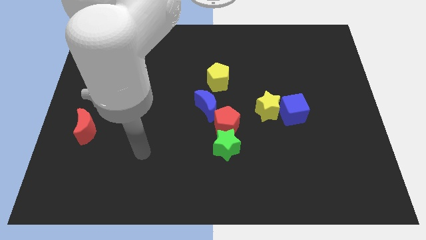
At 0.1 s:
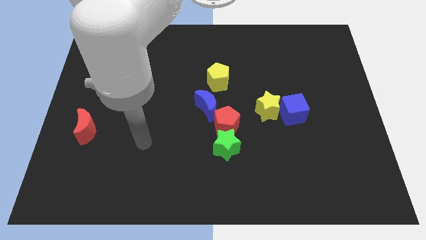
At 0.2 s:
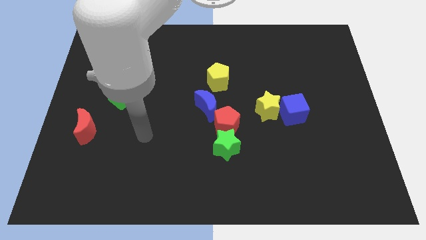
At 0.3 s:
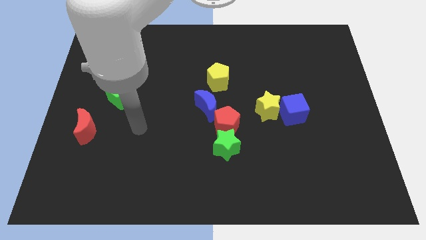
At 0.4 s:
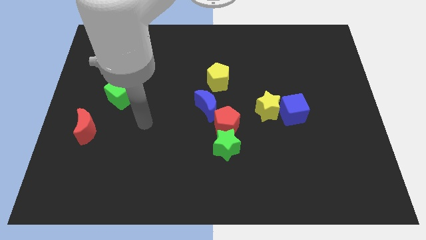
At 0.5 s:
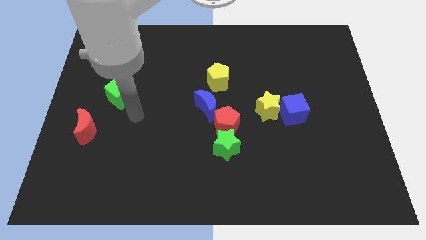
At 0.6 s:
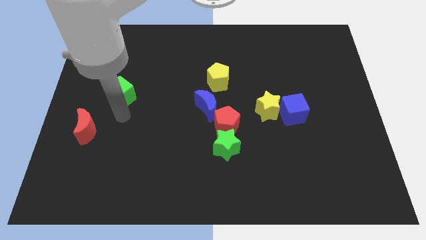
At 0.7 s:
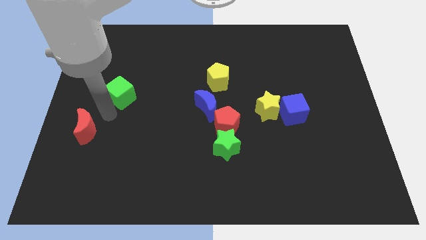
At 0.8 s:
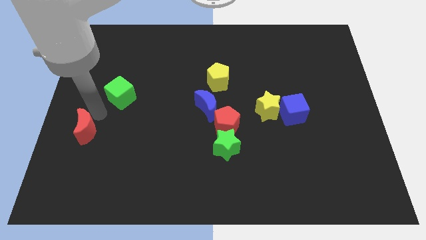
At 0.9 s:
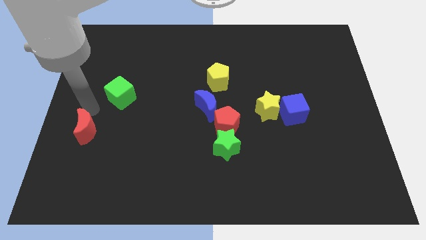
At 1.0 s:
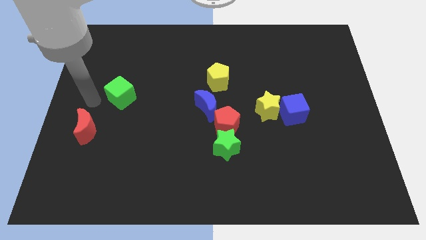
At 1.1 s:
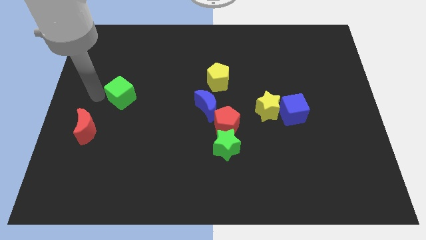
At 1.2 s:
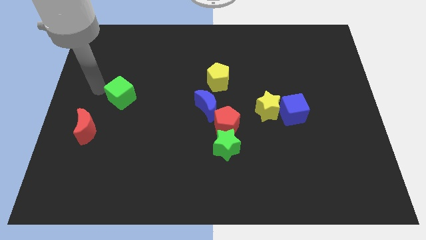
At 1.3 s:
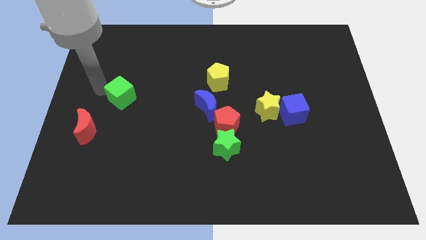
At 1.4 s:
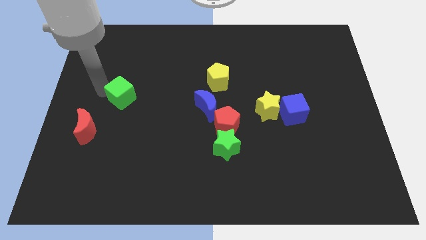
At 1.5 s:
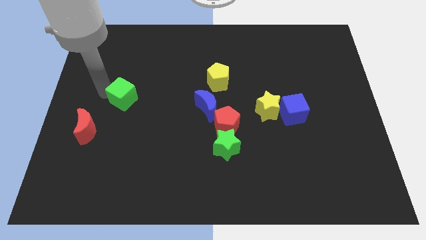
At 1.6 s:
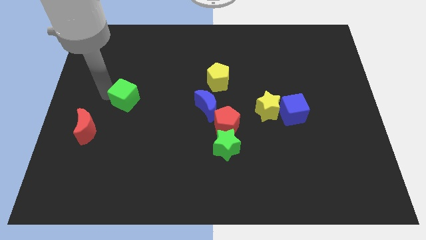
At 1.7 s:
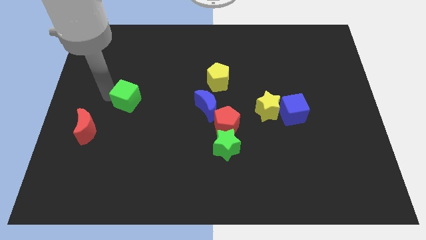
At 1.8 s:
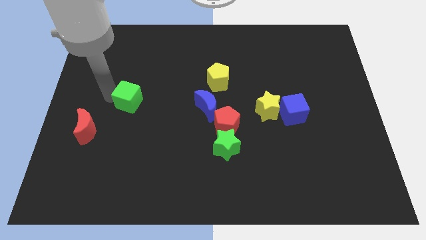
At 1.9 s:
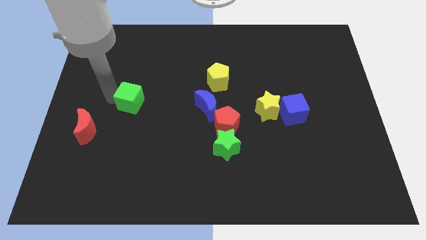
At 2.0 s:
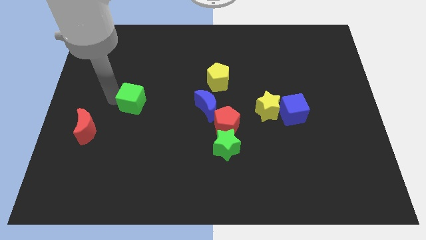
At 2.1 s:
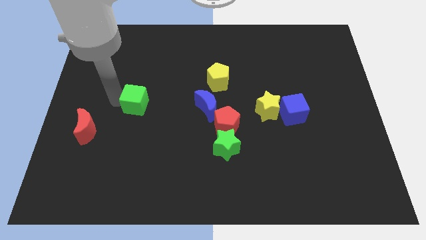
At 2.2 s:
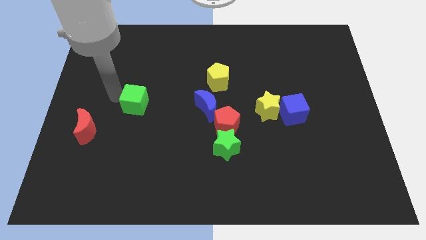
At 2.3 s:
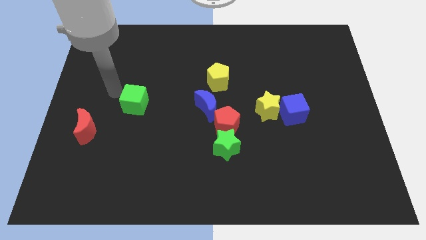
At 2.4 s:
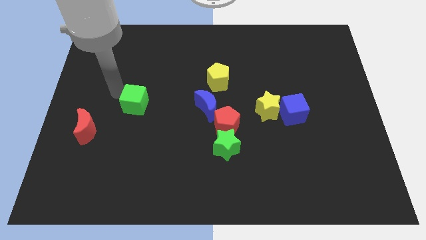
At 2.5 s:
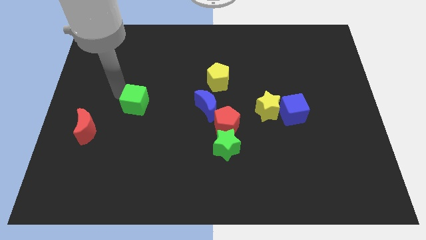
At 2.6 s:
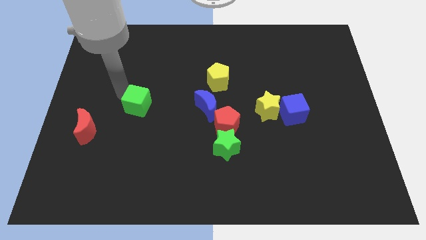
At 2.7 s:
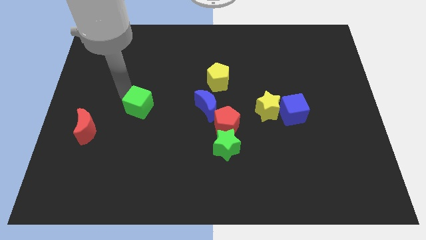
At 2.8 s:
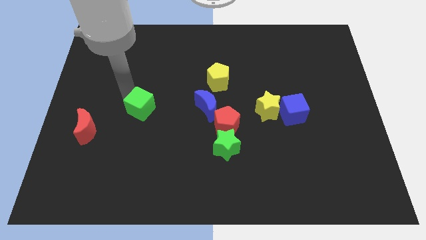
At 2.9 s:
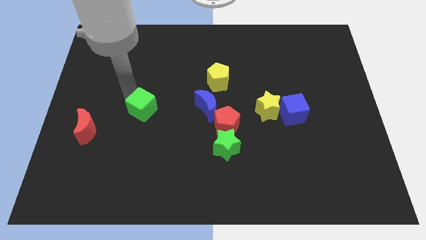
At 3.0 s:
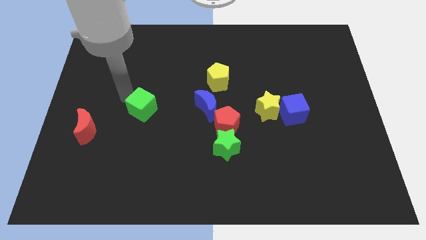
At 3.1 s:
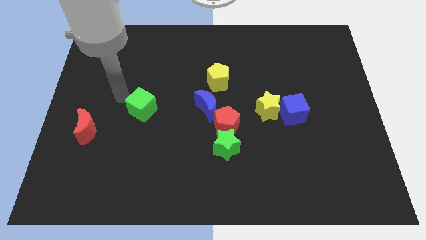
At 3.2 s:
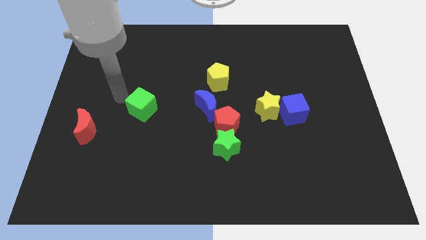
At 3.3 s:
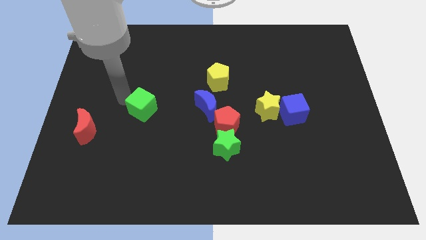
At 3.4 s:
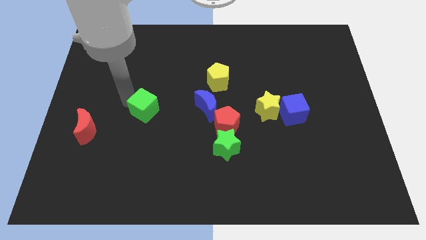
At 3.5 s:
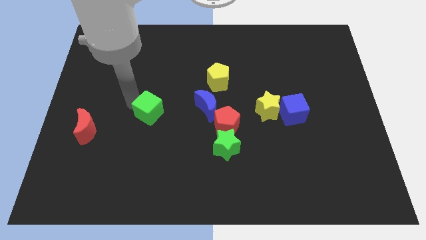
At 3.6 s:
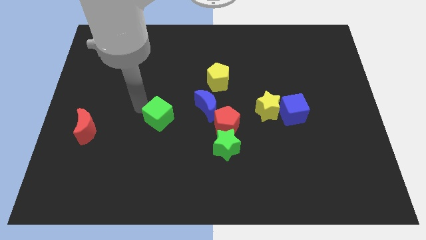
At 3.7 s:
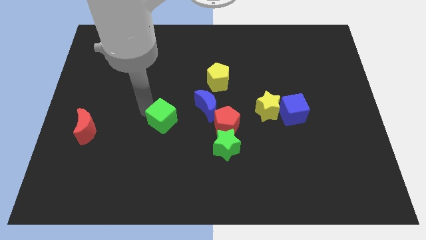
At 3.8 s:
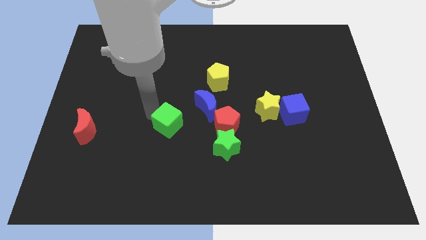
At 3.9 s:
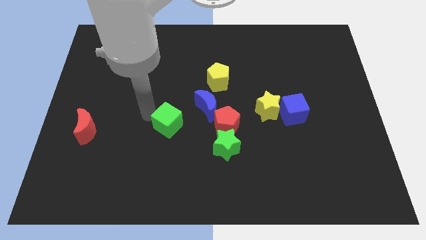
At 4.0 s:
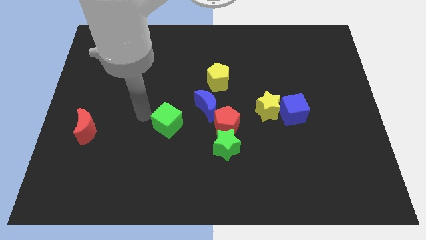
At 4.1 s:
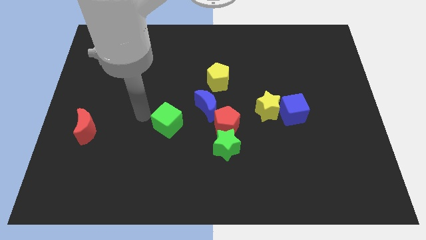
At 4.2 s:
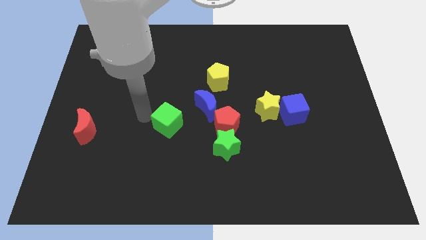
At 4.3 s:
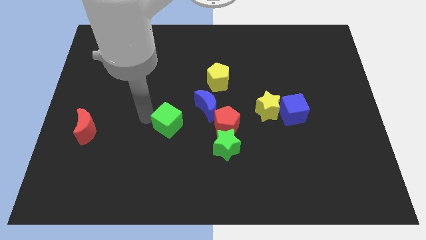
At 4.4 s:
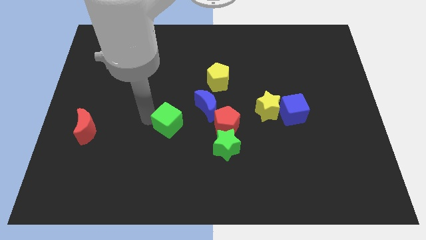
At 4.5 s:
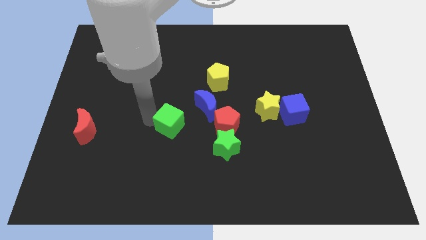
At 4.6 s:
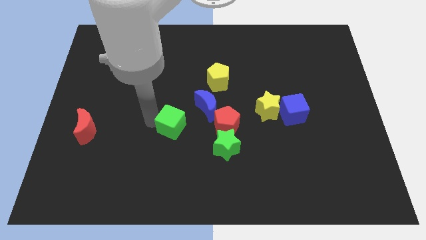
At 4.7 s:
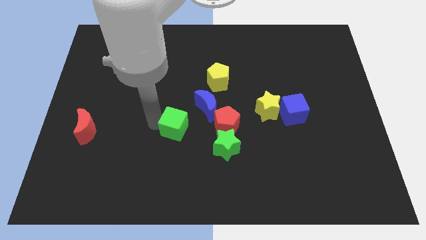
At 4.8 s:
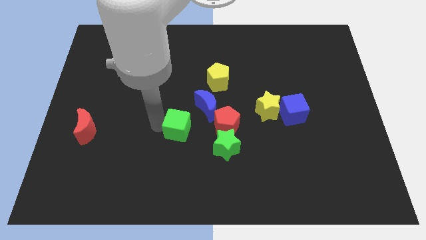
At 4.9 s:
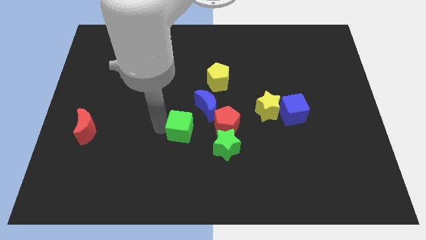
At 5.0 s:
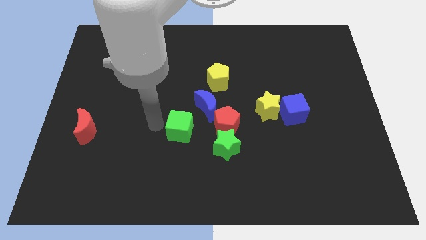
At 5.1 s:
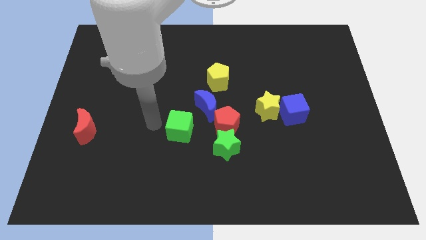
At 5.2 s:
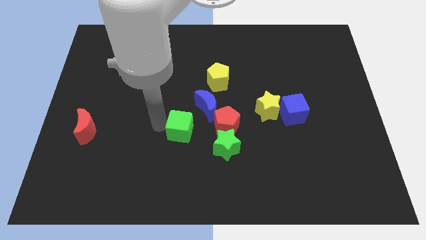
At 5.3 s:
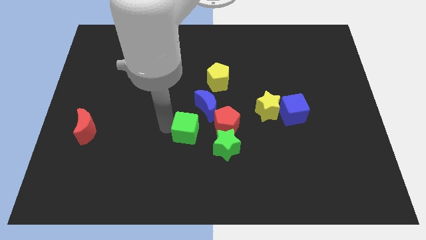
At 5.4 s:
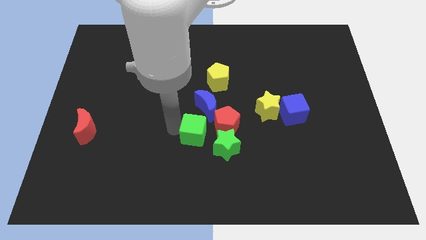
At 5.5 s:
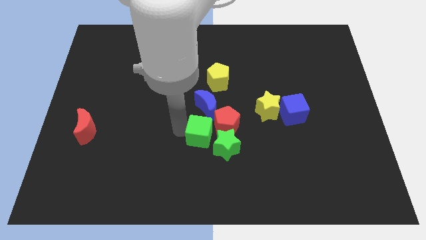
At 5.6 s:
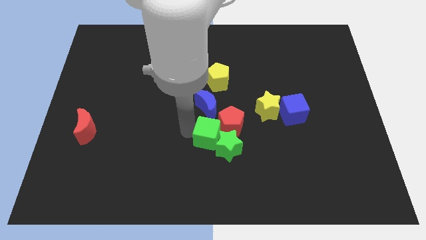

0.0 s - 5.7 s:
slide the green cube next to the green star

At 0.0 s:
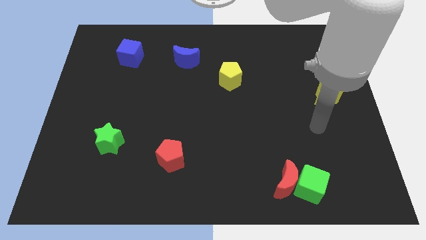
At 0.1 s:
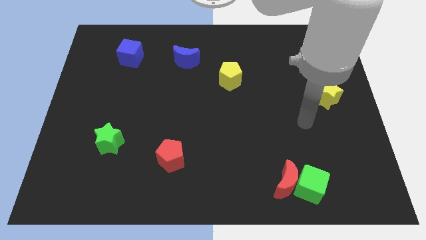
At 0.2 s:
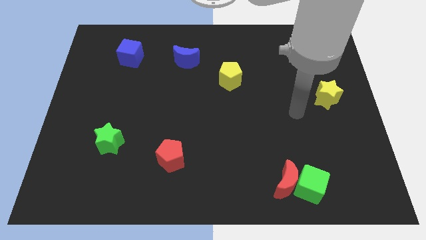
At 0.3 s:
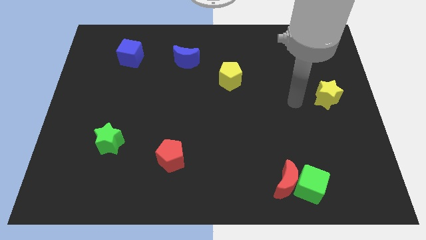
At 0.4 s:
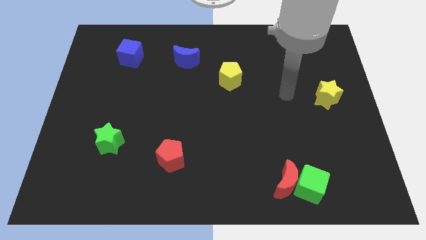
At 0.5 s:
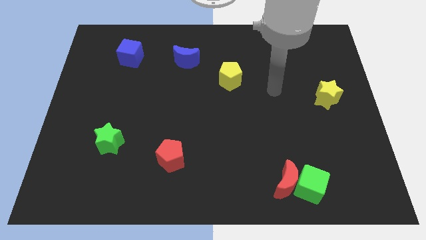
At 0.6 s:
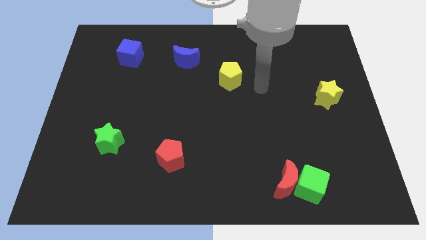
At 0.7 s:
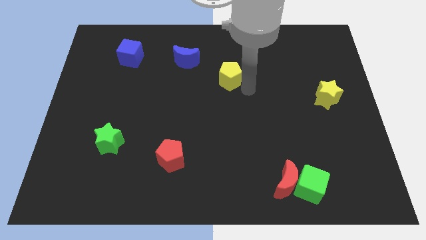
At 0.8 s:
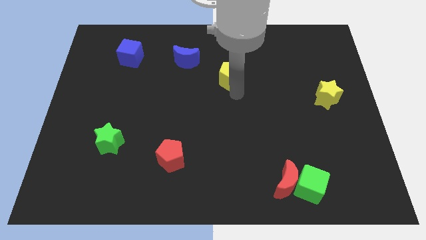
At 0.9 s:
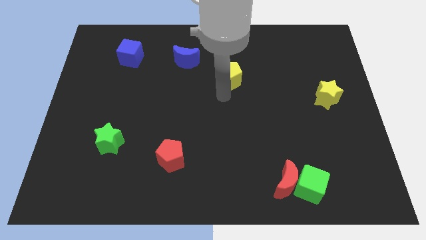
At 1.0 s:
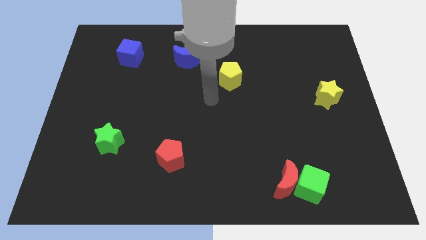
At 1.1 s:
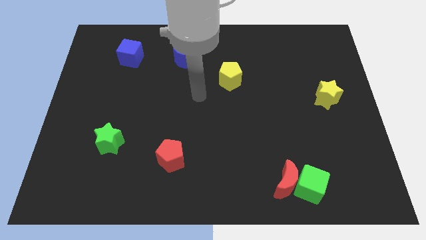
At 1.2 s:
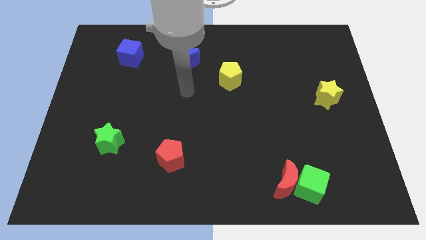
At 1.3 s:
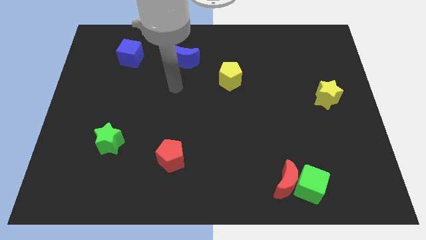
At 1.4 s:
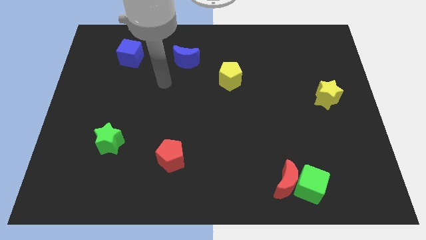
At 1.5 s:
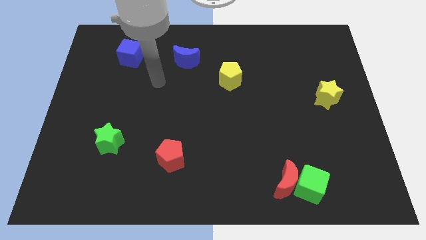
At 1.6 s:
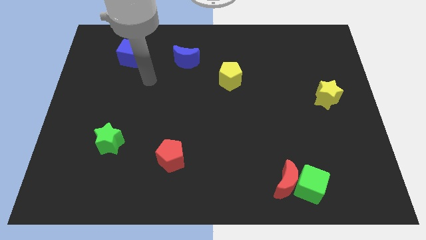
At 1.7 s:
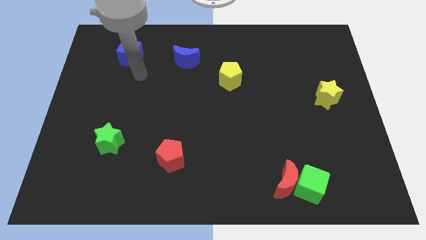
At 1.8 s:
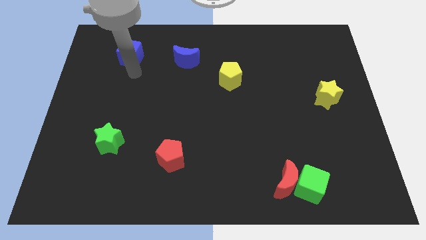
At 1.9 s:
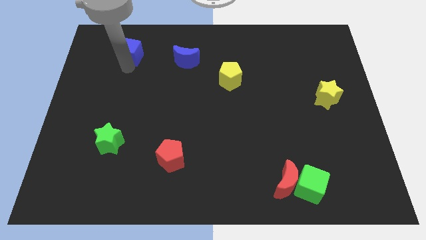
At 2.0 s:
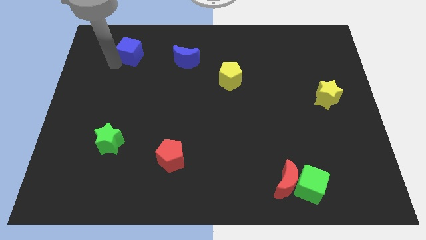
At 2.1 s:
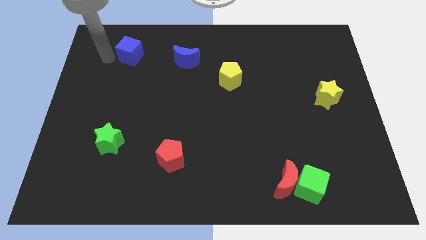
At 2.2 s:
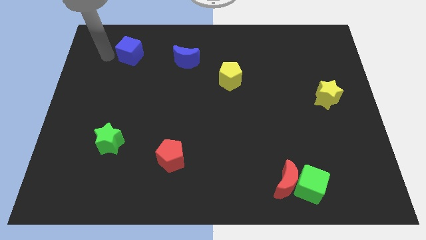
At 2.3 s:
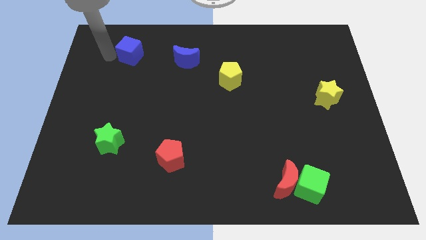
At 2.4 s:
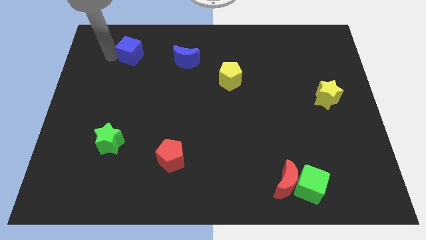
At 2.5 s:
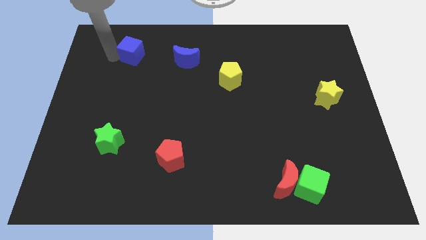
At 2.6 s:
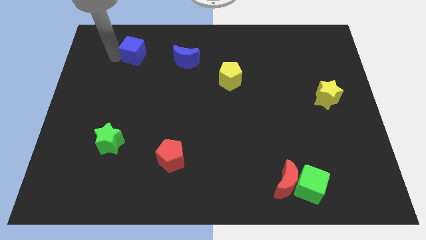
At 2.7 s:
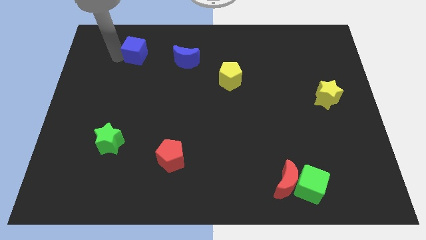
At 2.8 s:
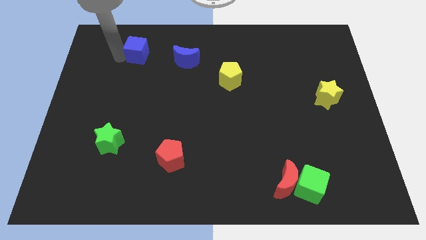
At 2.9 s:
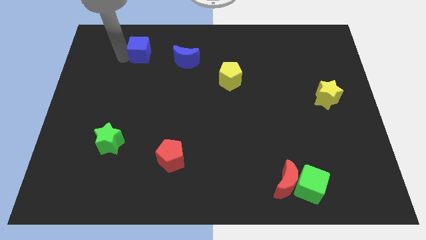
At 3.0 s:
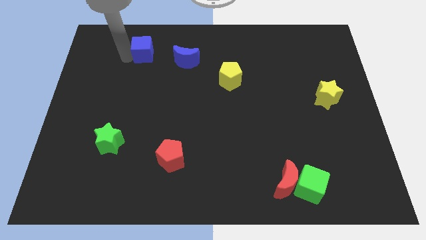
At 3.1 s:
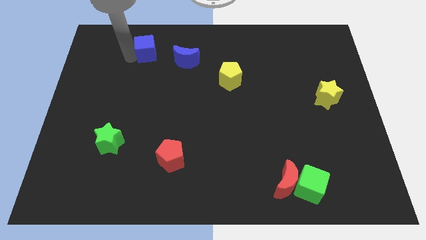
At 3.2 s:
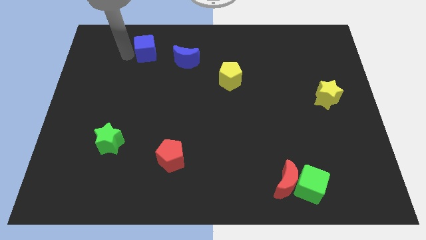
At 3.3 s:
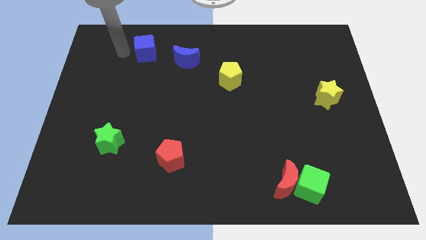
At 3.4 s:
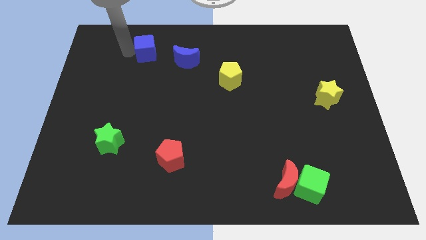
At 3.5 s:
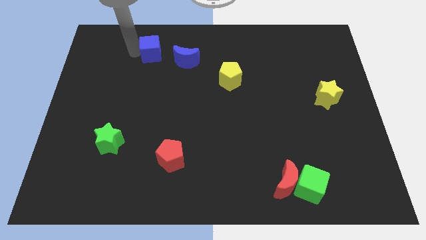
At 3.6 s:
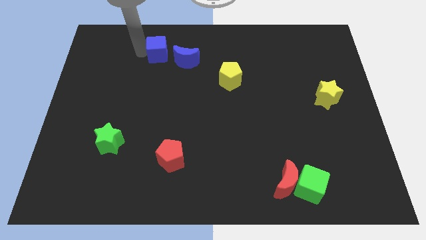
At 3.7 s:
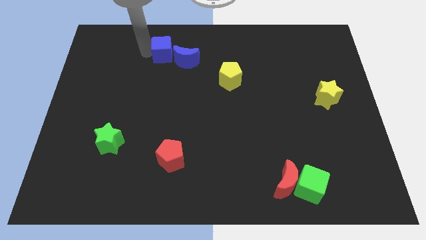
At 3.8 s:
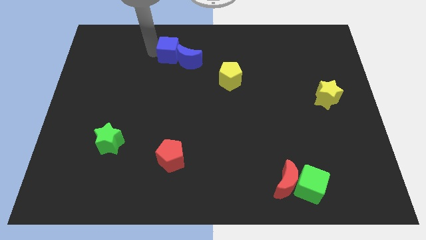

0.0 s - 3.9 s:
push the blue cube to the blue moon
